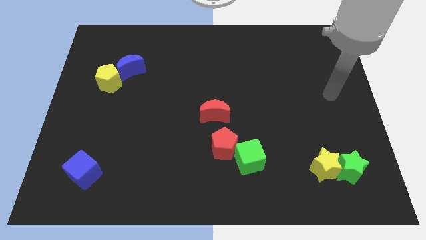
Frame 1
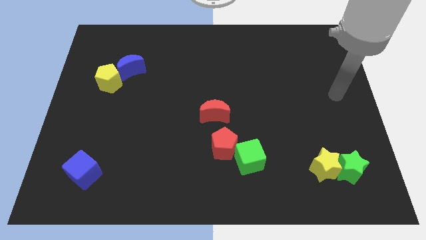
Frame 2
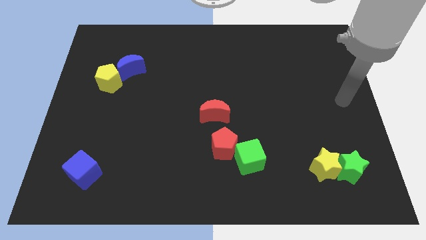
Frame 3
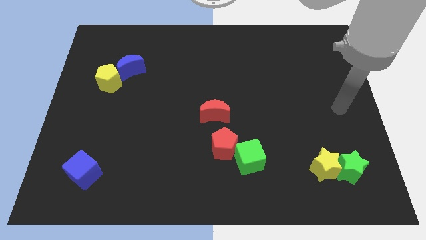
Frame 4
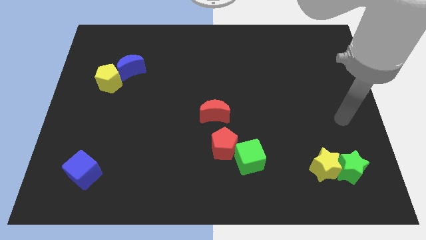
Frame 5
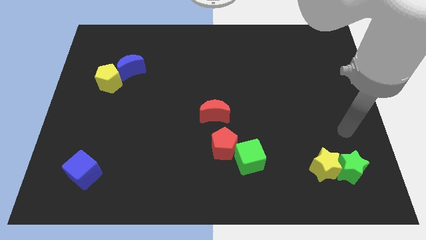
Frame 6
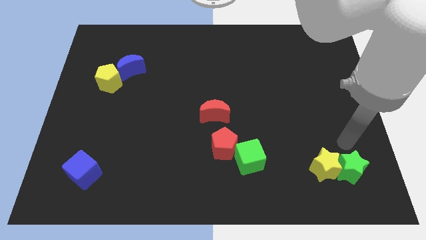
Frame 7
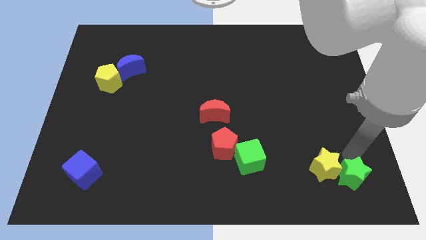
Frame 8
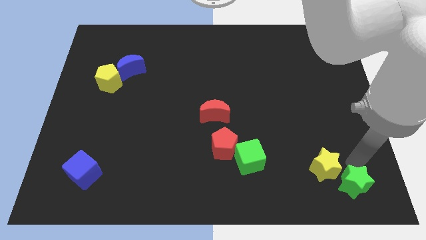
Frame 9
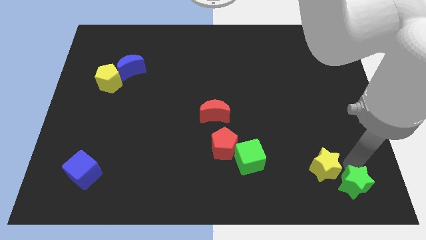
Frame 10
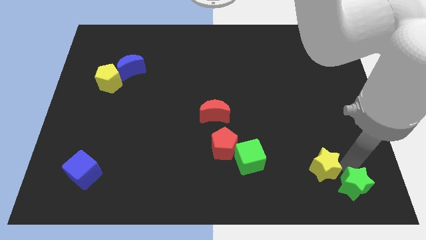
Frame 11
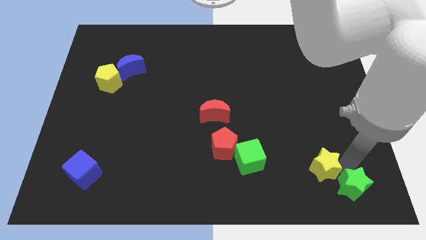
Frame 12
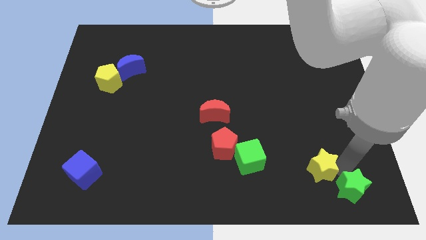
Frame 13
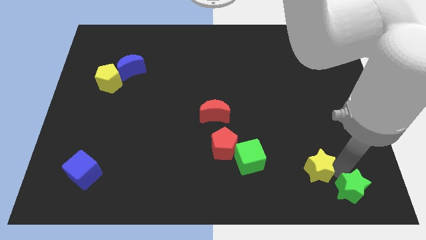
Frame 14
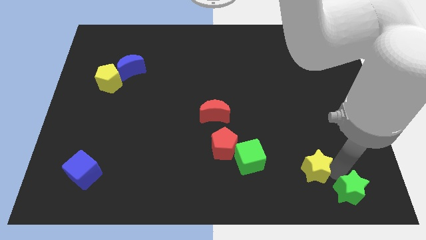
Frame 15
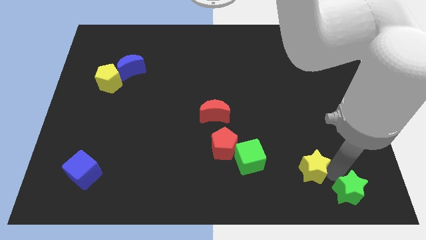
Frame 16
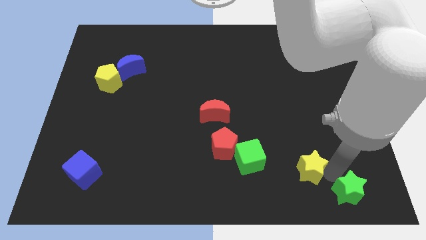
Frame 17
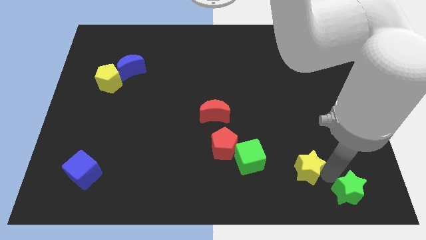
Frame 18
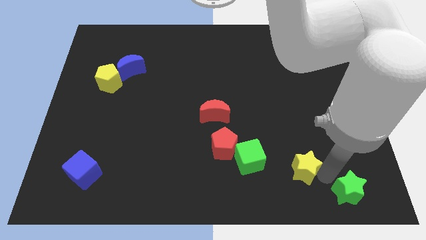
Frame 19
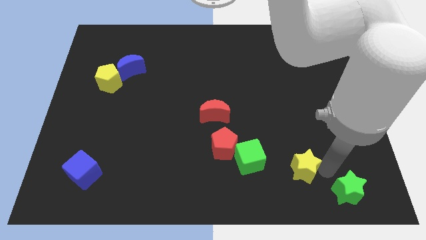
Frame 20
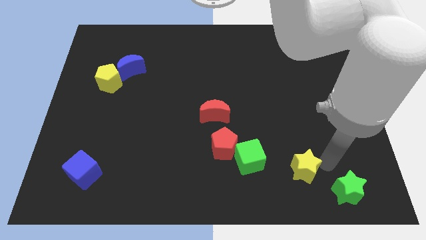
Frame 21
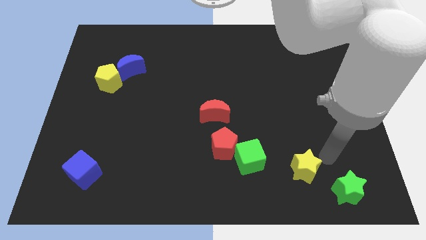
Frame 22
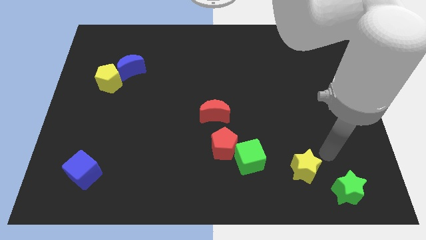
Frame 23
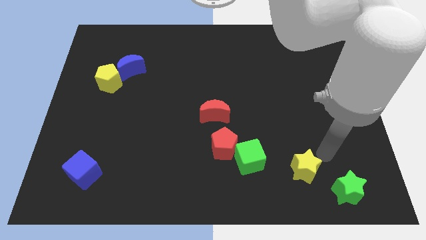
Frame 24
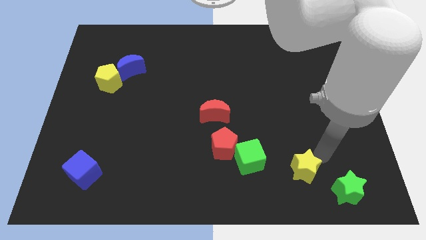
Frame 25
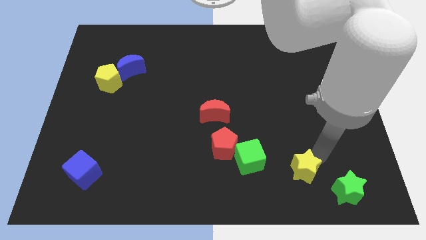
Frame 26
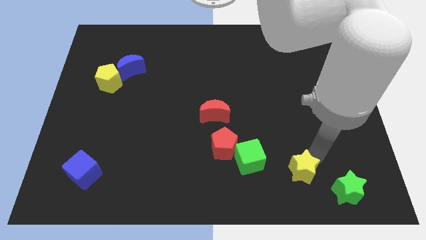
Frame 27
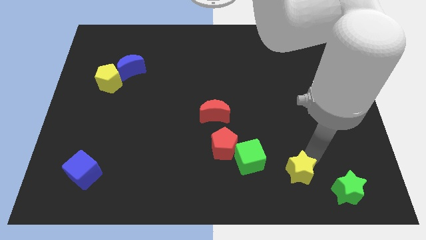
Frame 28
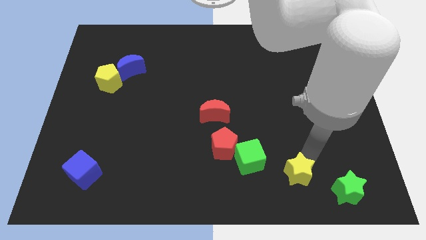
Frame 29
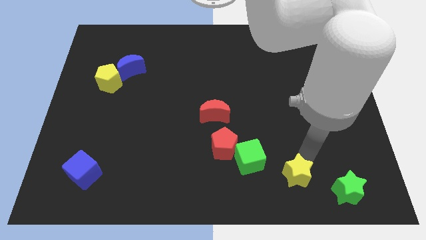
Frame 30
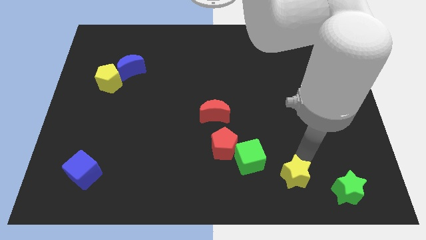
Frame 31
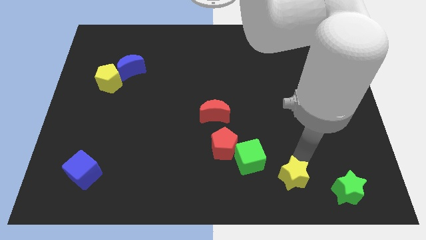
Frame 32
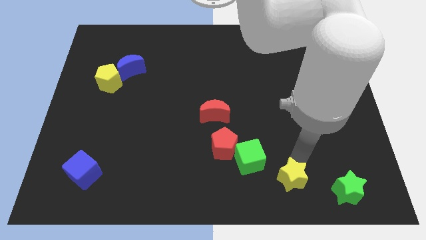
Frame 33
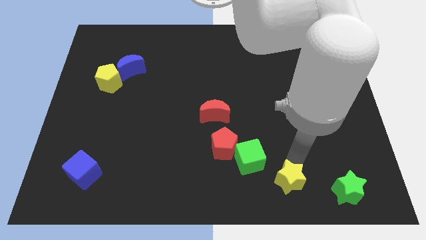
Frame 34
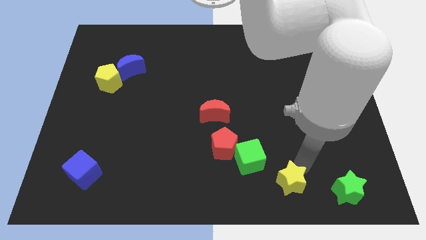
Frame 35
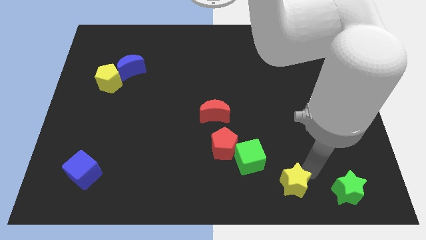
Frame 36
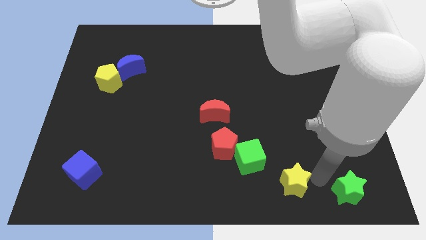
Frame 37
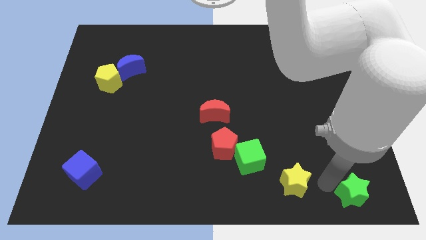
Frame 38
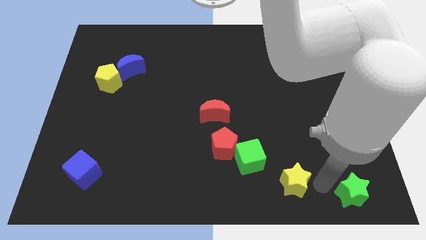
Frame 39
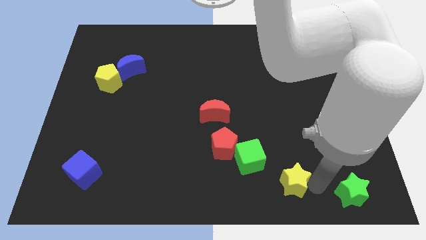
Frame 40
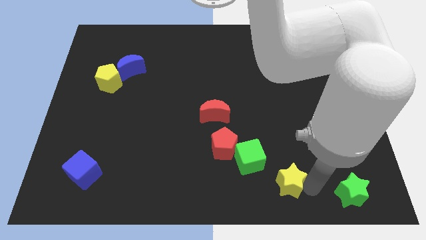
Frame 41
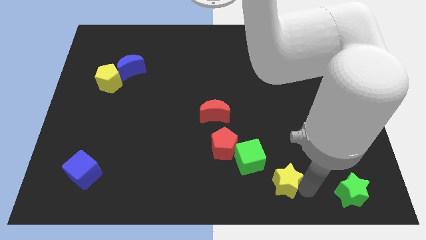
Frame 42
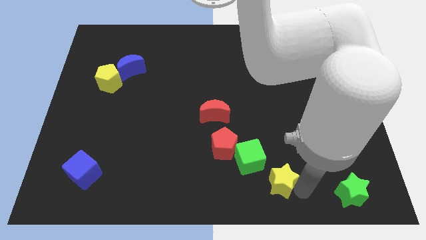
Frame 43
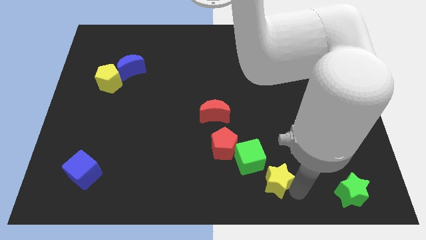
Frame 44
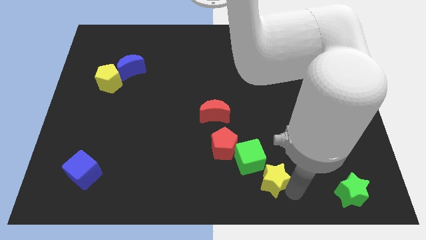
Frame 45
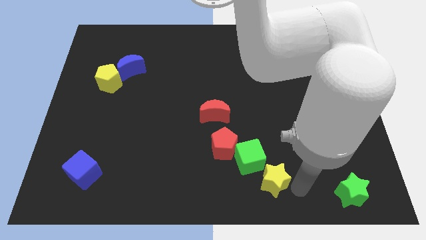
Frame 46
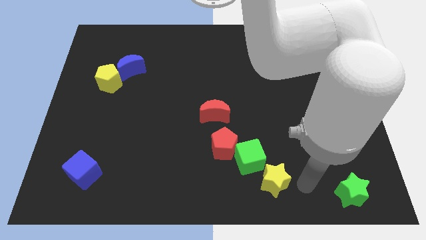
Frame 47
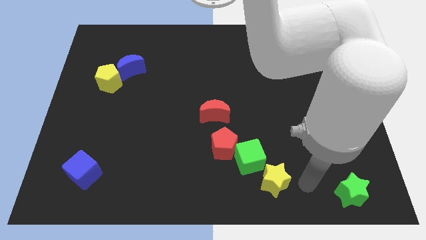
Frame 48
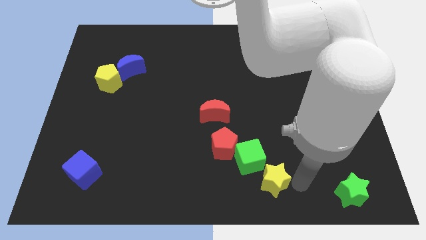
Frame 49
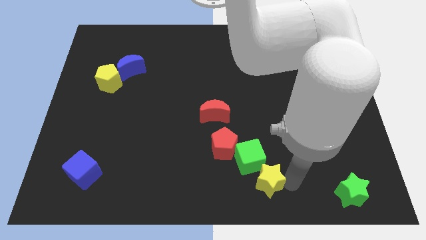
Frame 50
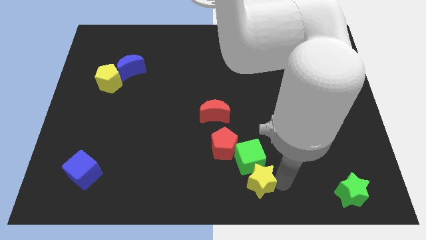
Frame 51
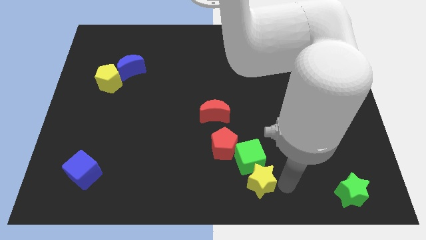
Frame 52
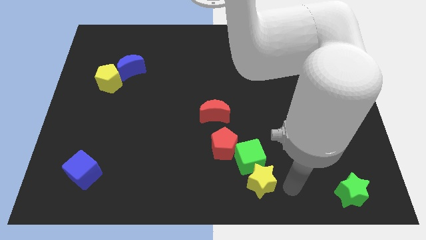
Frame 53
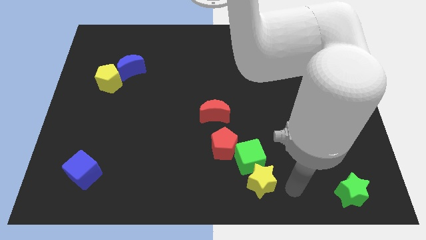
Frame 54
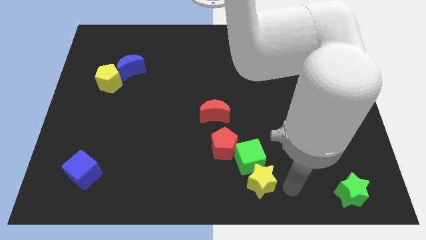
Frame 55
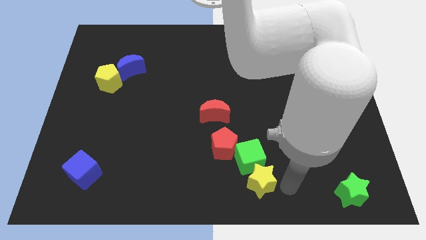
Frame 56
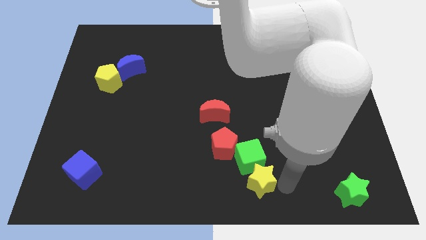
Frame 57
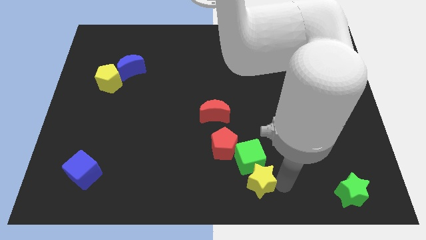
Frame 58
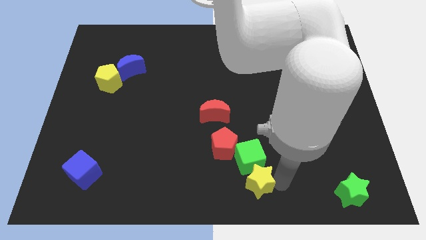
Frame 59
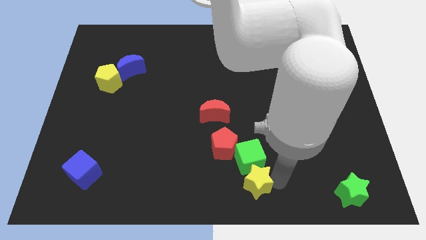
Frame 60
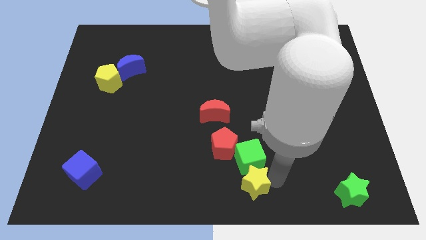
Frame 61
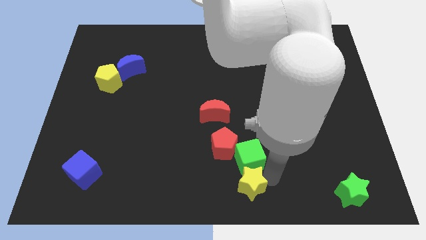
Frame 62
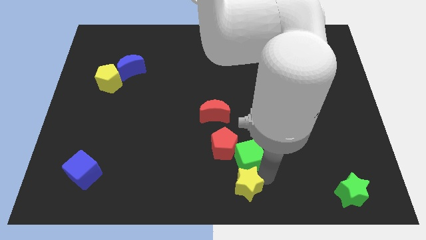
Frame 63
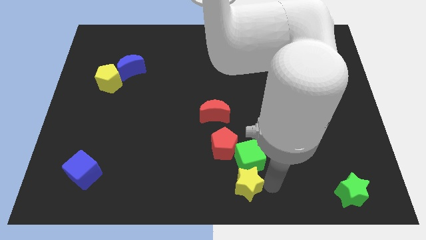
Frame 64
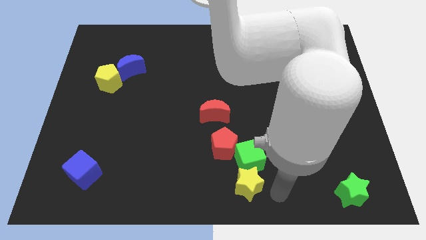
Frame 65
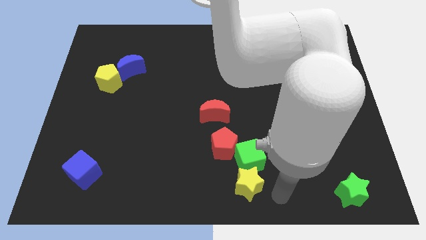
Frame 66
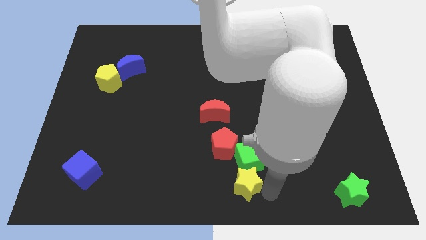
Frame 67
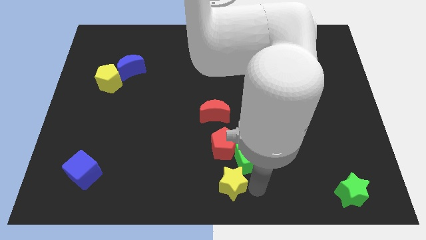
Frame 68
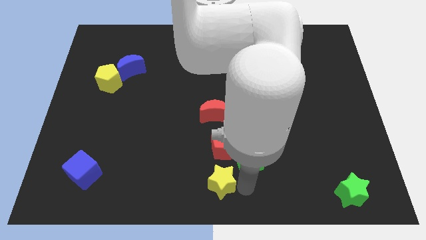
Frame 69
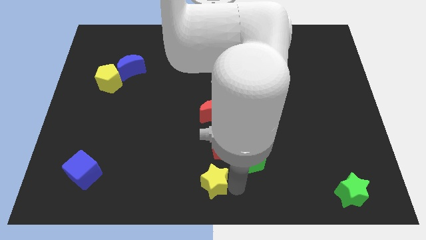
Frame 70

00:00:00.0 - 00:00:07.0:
slide the yellow star to the bottom left of the red pentagon
